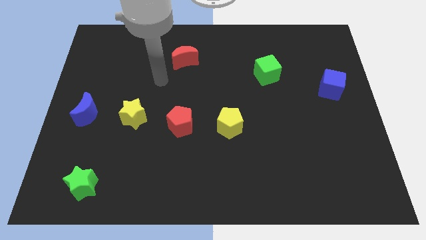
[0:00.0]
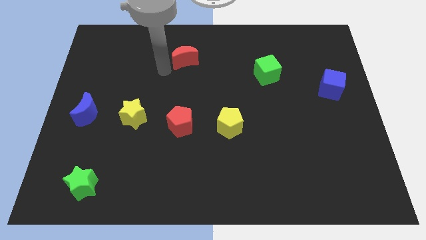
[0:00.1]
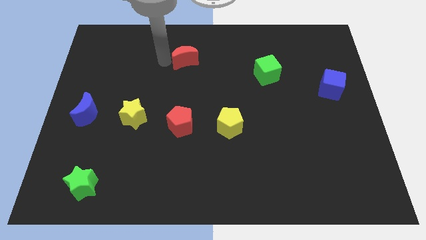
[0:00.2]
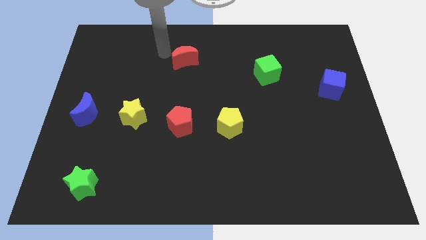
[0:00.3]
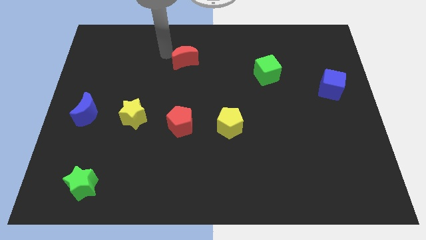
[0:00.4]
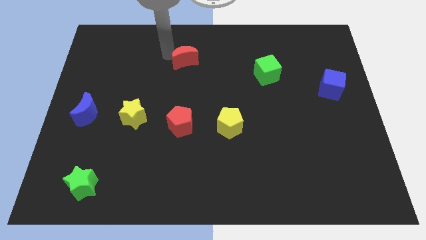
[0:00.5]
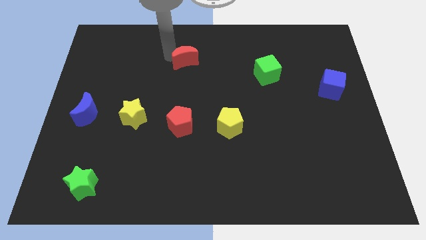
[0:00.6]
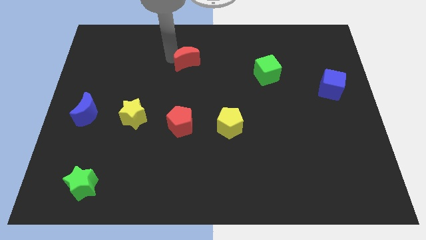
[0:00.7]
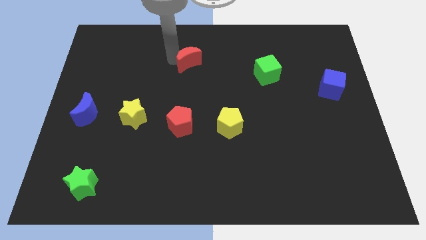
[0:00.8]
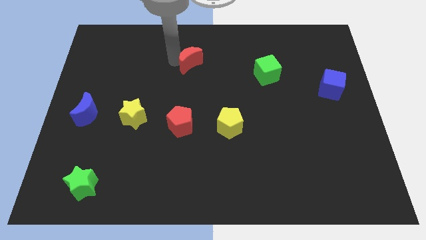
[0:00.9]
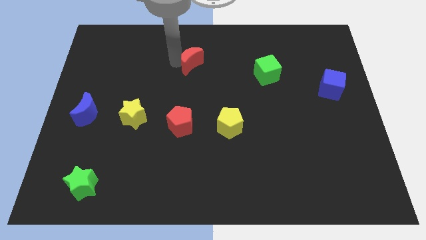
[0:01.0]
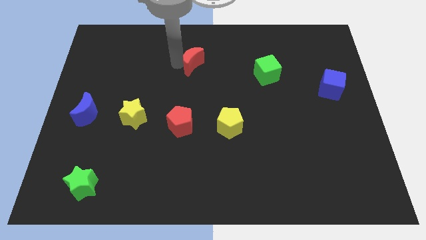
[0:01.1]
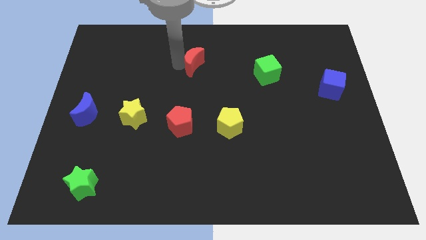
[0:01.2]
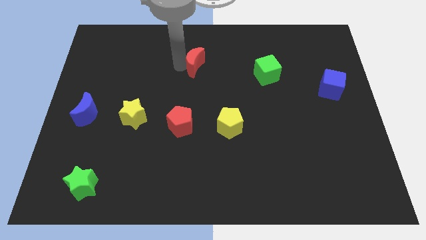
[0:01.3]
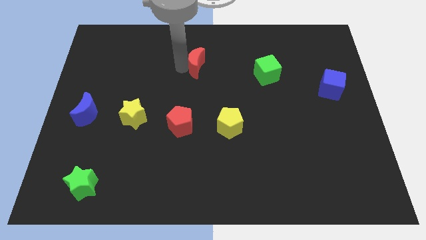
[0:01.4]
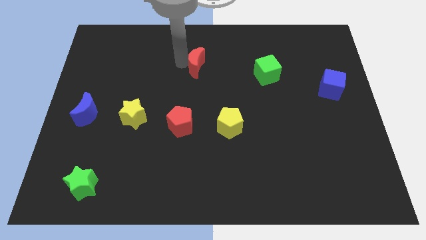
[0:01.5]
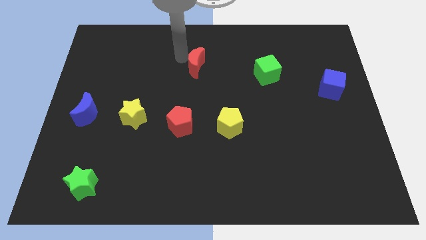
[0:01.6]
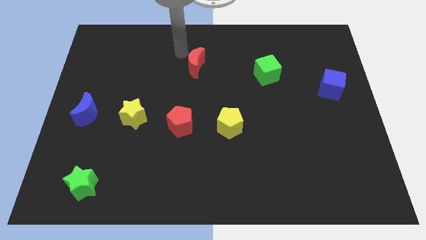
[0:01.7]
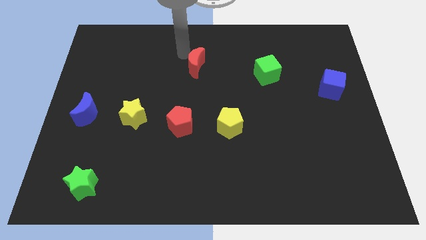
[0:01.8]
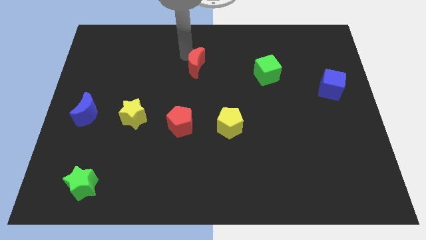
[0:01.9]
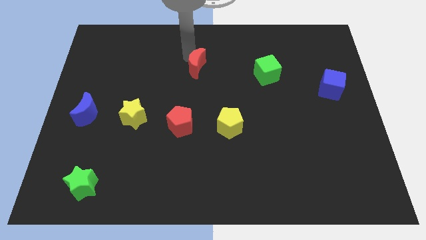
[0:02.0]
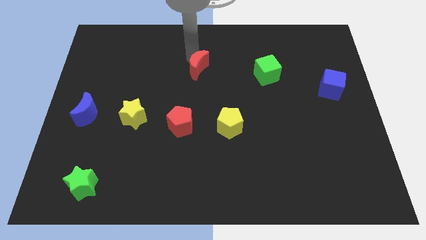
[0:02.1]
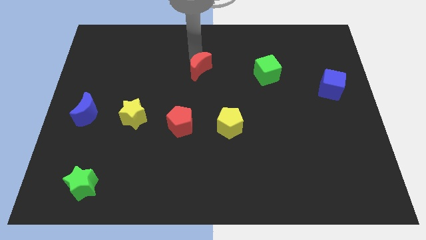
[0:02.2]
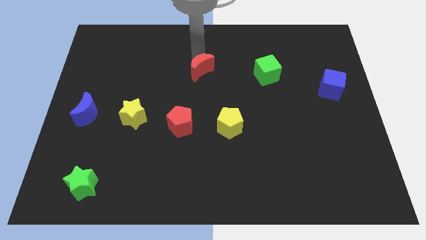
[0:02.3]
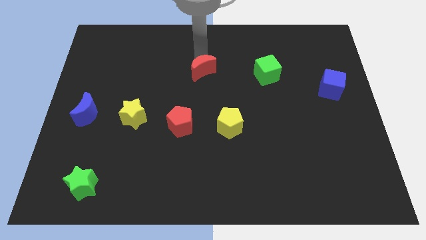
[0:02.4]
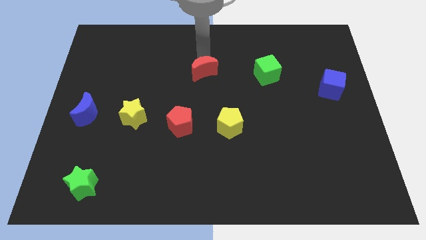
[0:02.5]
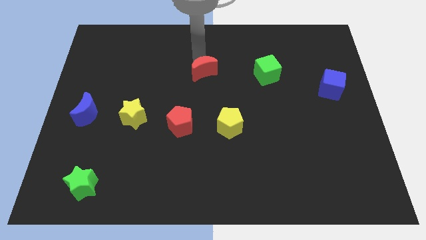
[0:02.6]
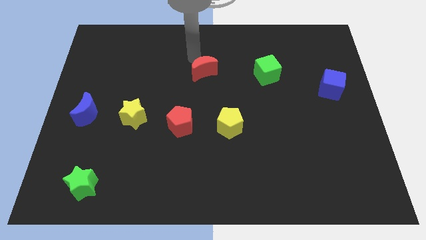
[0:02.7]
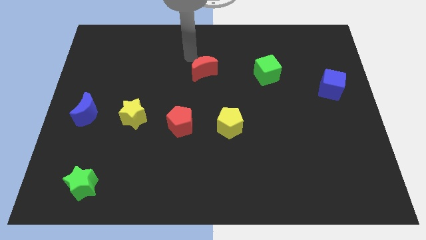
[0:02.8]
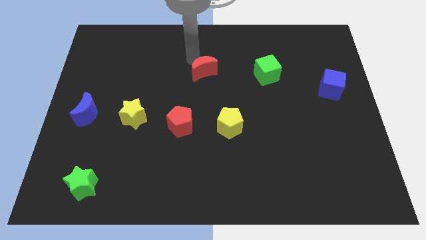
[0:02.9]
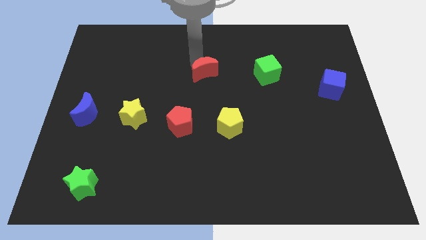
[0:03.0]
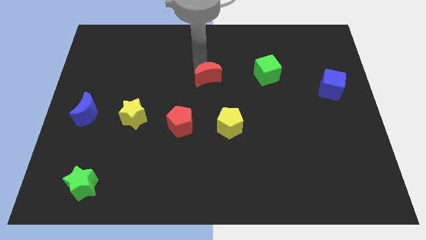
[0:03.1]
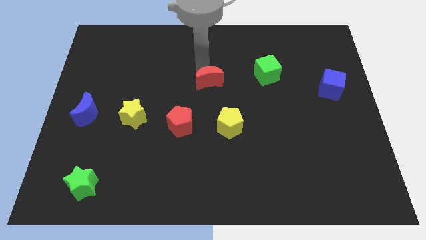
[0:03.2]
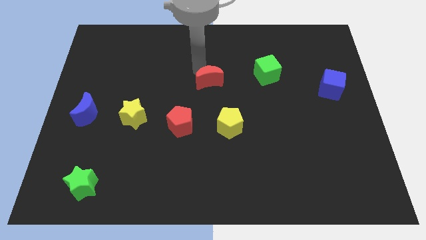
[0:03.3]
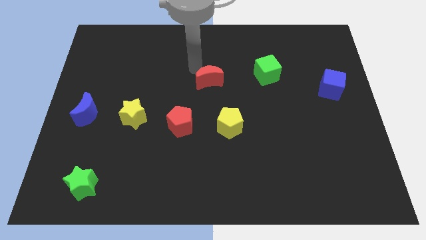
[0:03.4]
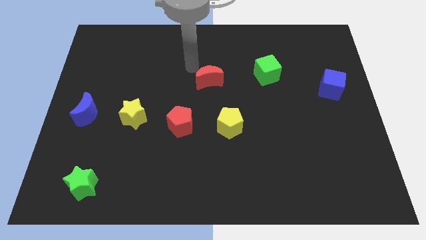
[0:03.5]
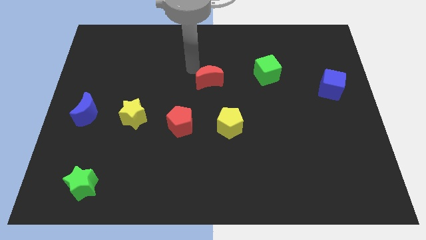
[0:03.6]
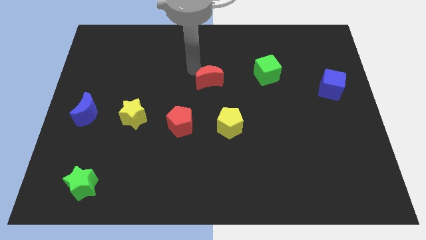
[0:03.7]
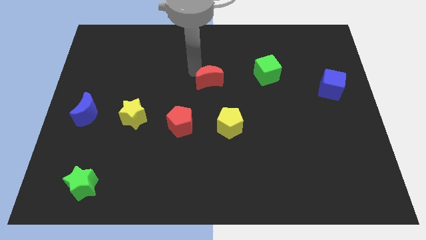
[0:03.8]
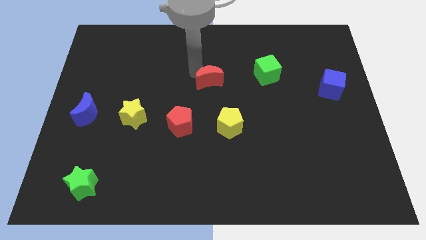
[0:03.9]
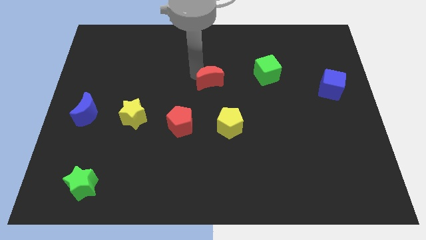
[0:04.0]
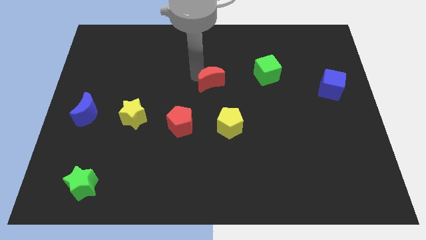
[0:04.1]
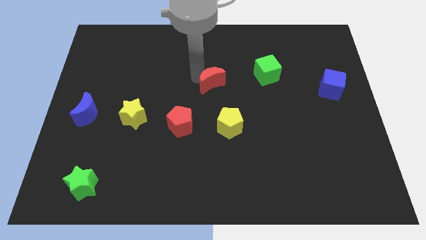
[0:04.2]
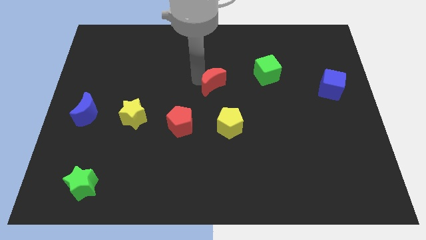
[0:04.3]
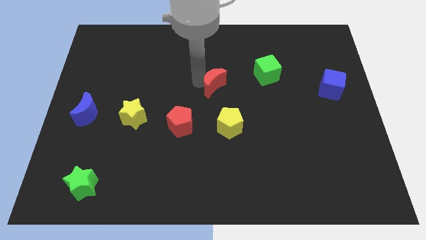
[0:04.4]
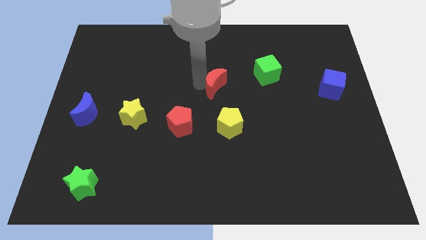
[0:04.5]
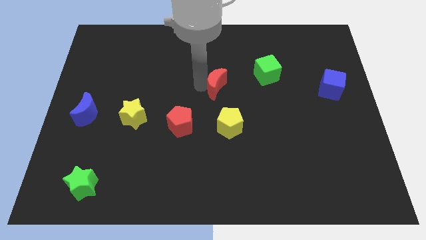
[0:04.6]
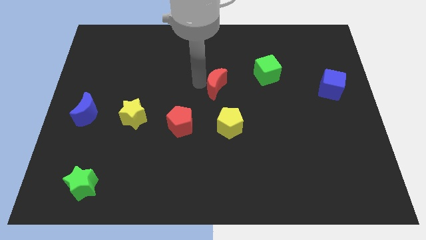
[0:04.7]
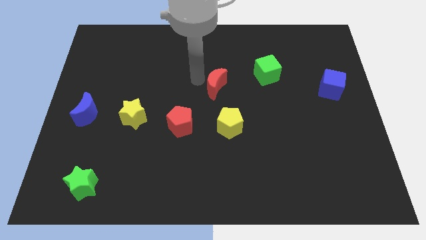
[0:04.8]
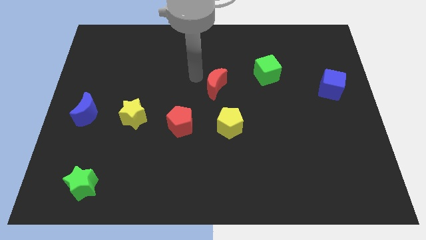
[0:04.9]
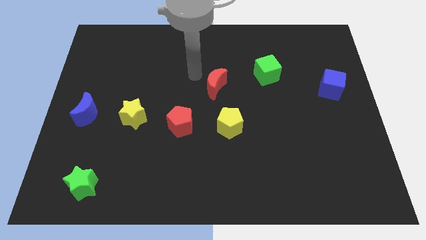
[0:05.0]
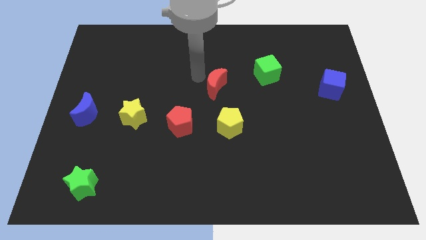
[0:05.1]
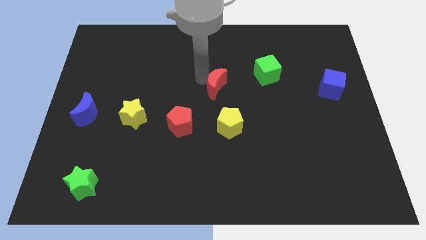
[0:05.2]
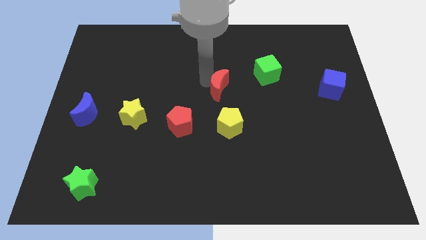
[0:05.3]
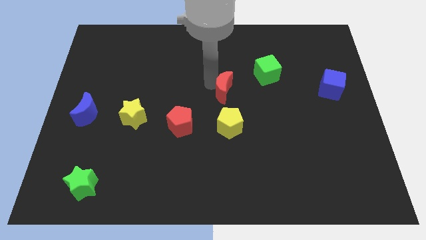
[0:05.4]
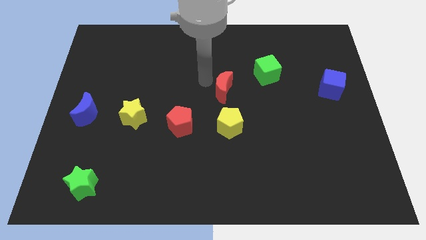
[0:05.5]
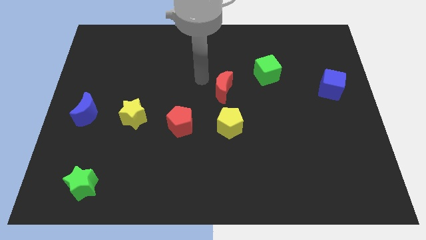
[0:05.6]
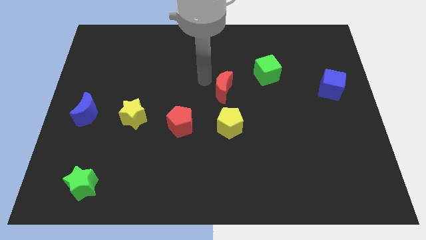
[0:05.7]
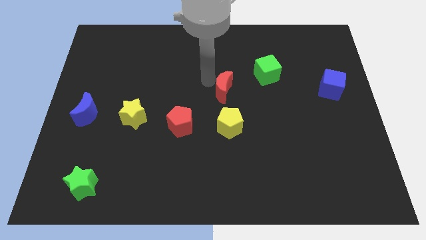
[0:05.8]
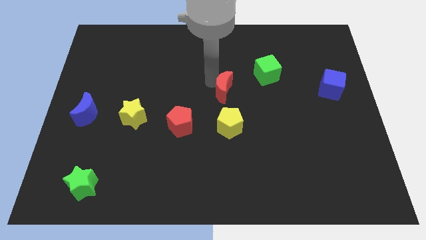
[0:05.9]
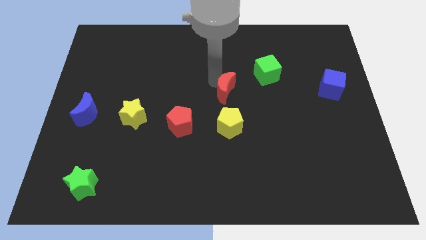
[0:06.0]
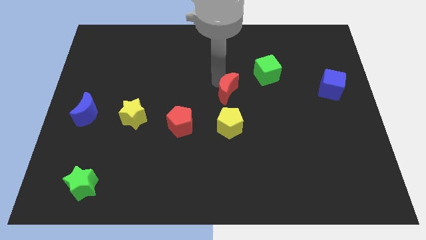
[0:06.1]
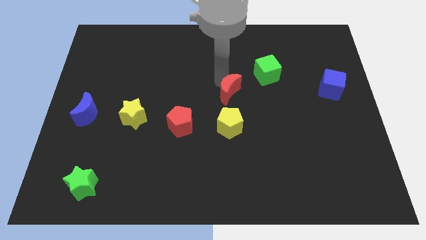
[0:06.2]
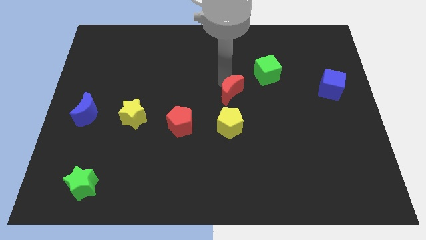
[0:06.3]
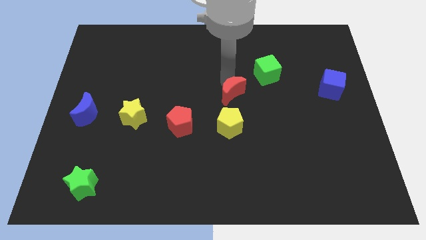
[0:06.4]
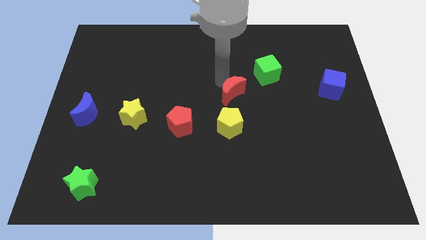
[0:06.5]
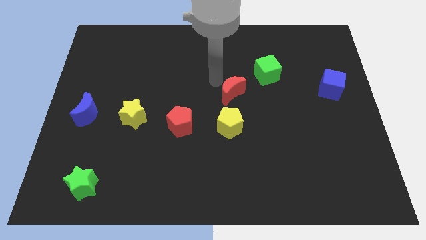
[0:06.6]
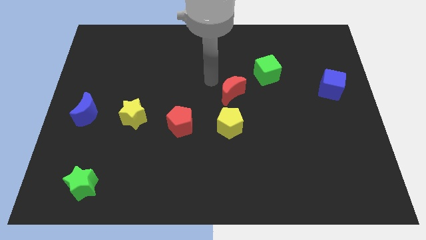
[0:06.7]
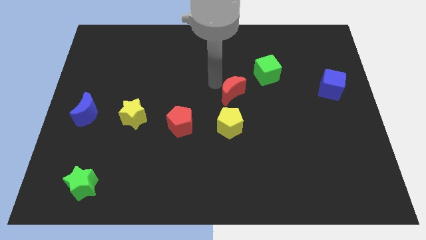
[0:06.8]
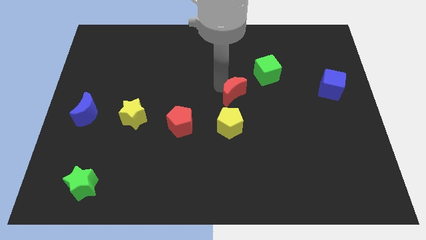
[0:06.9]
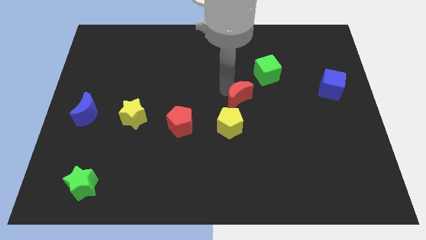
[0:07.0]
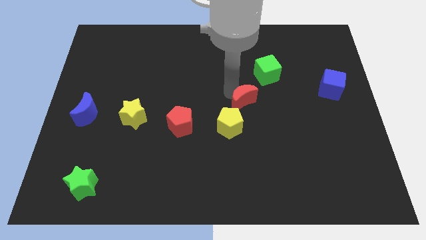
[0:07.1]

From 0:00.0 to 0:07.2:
move the red moon down and then to the right

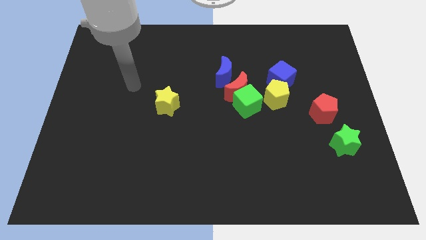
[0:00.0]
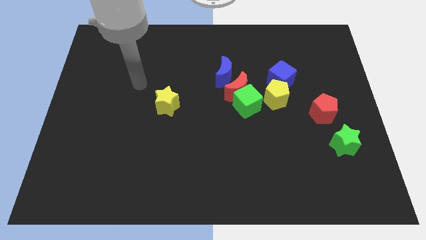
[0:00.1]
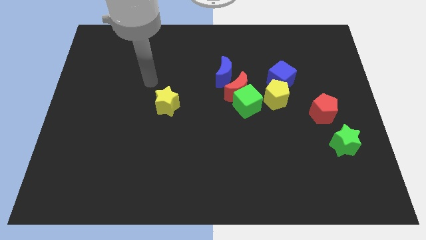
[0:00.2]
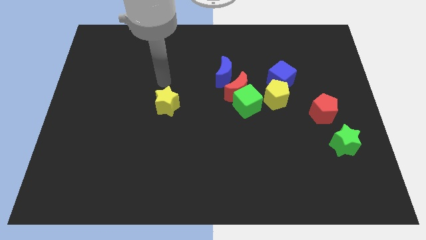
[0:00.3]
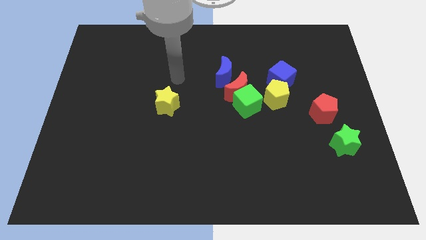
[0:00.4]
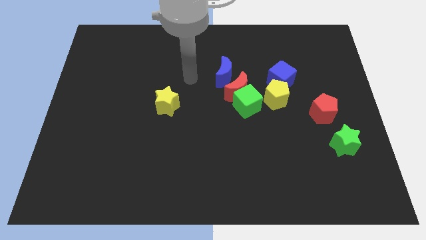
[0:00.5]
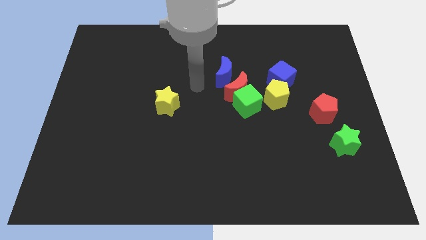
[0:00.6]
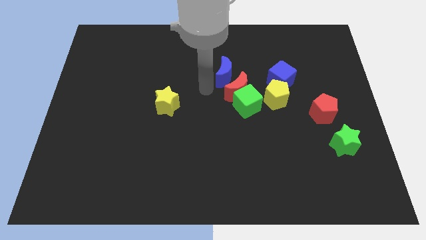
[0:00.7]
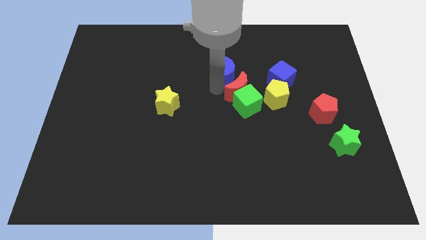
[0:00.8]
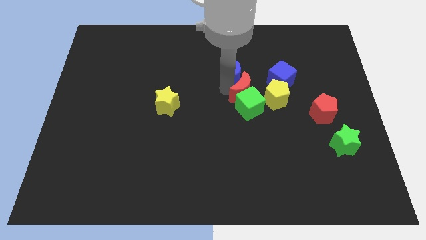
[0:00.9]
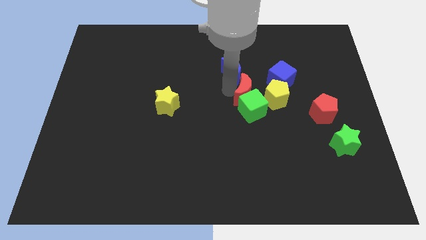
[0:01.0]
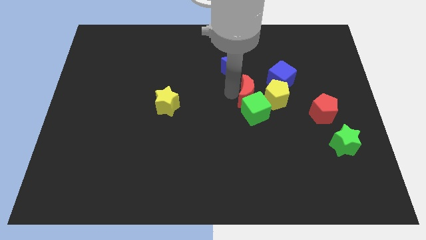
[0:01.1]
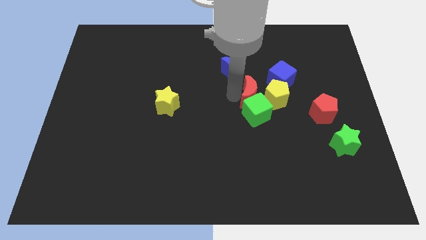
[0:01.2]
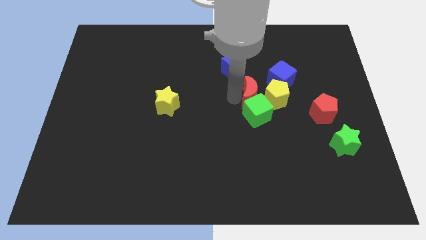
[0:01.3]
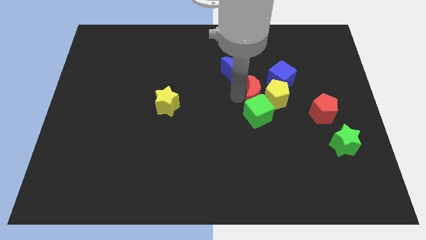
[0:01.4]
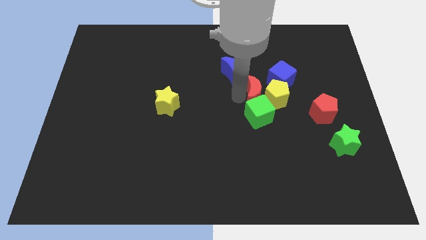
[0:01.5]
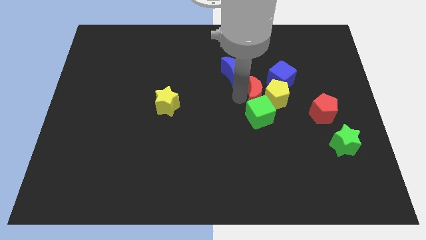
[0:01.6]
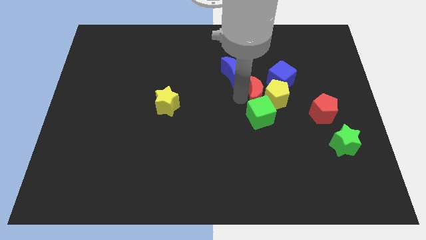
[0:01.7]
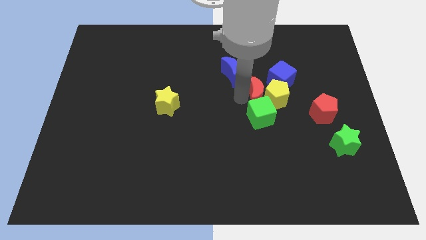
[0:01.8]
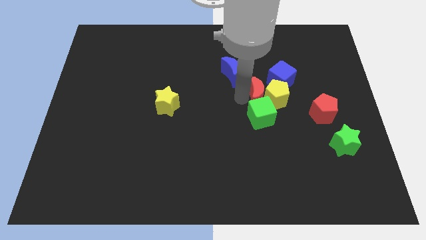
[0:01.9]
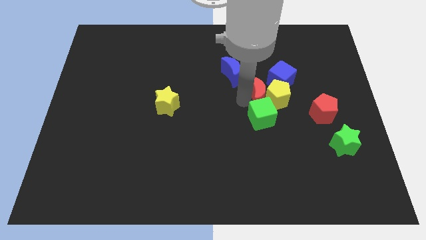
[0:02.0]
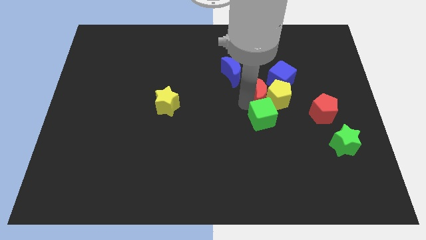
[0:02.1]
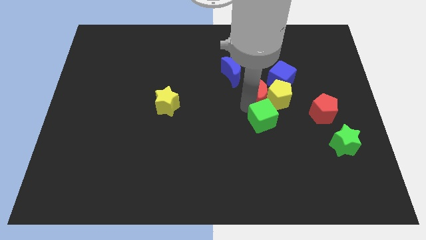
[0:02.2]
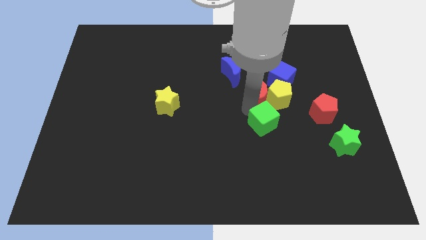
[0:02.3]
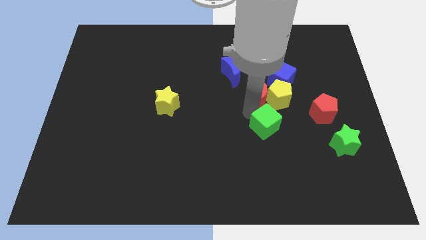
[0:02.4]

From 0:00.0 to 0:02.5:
slightly slide the green cube down and right diagonally
